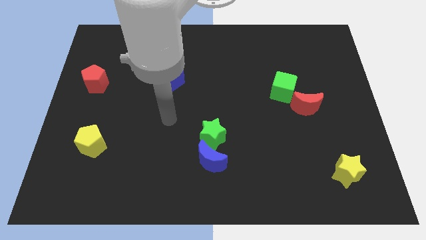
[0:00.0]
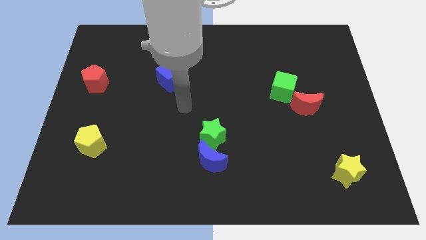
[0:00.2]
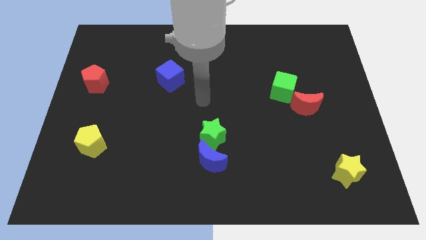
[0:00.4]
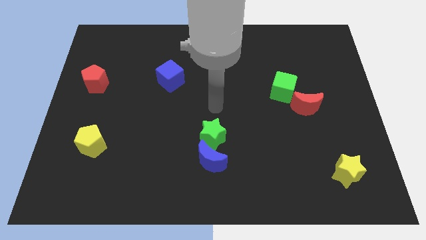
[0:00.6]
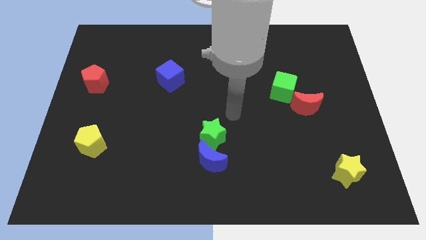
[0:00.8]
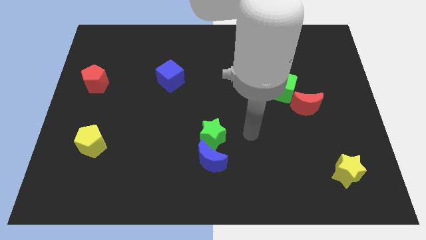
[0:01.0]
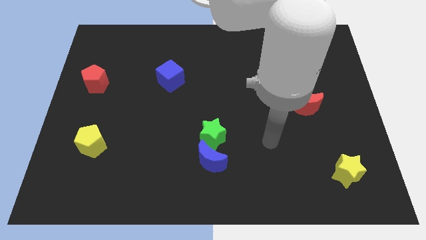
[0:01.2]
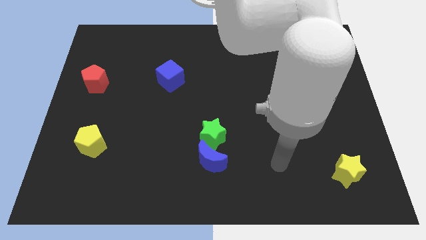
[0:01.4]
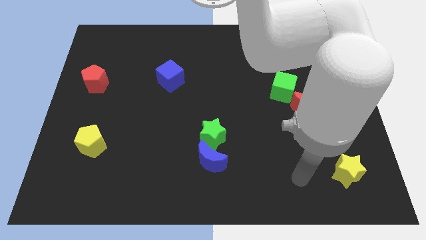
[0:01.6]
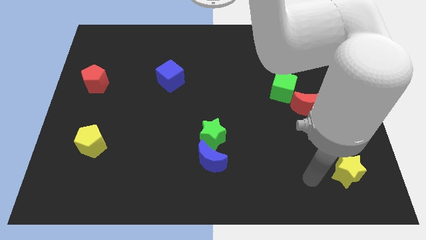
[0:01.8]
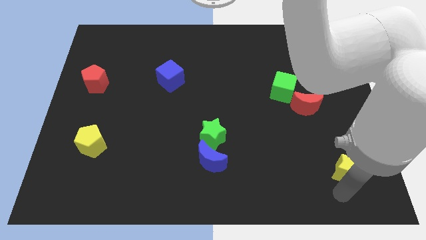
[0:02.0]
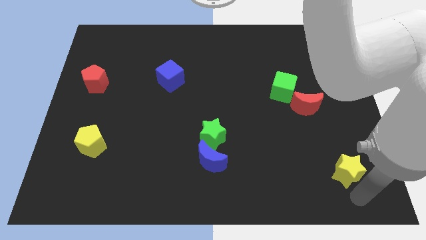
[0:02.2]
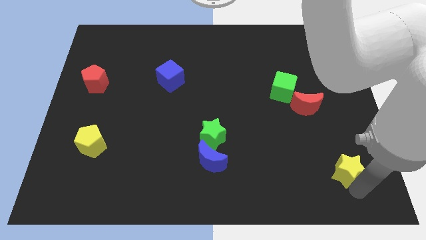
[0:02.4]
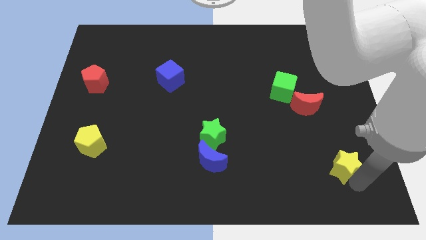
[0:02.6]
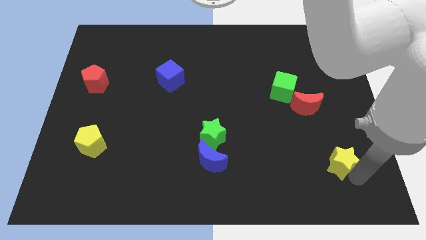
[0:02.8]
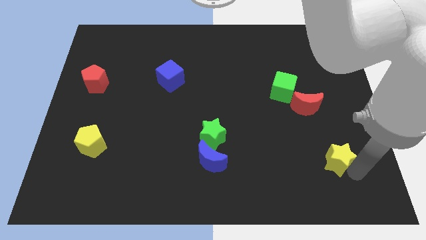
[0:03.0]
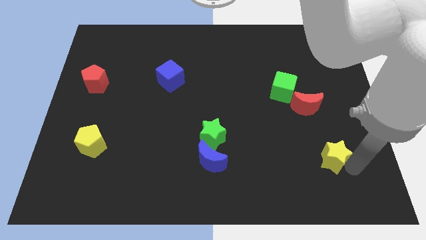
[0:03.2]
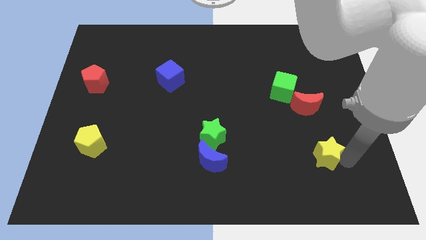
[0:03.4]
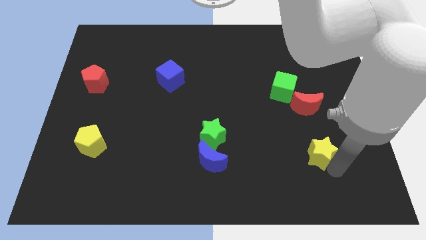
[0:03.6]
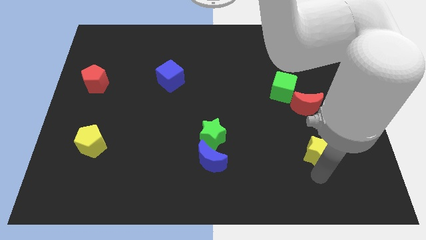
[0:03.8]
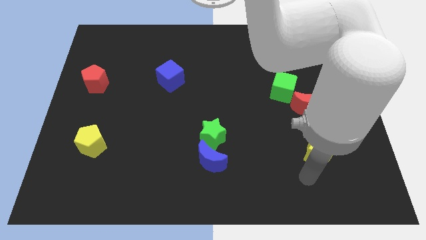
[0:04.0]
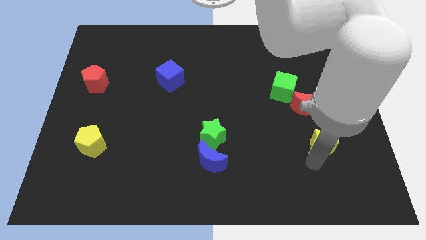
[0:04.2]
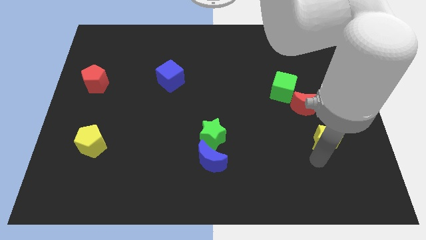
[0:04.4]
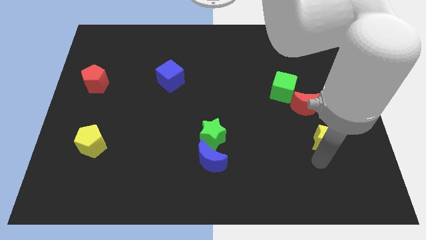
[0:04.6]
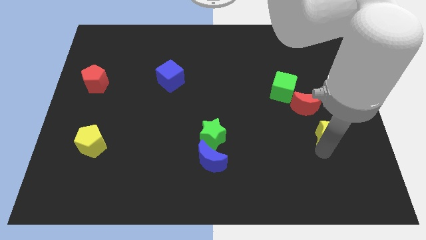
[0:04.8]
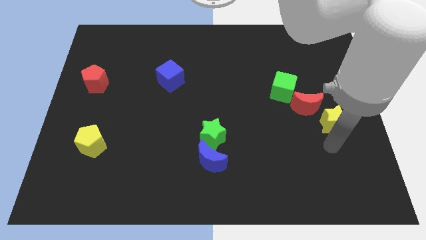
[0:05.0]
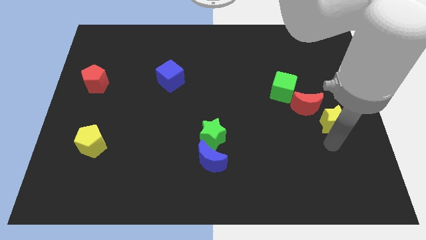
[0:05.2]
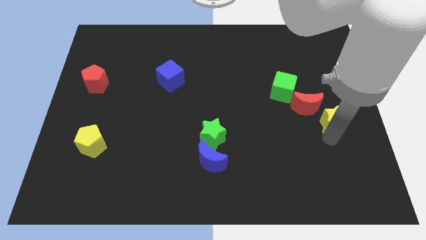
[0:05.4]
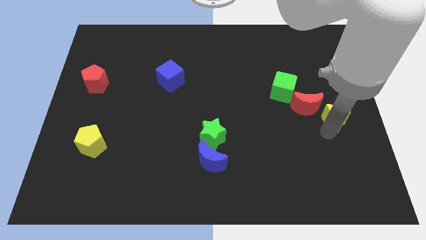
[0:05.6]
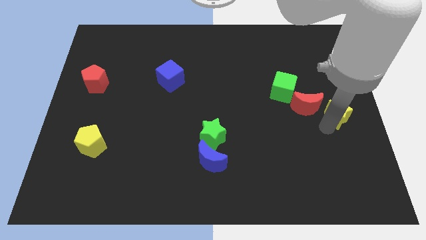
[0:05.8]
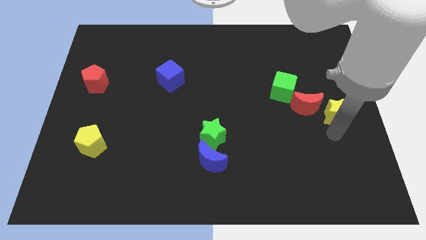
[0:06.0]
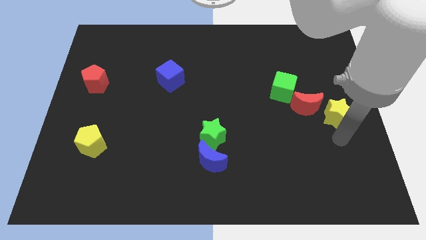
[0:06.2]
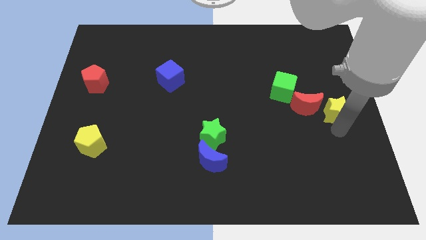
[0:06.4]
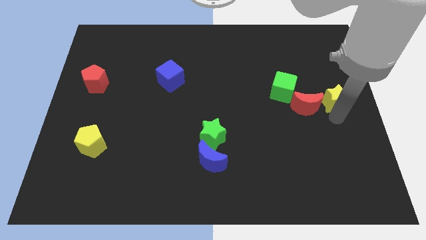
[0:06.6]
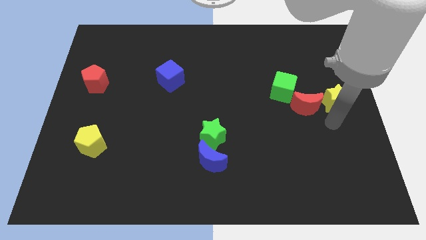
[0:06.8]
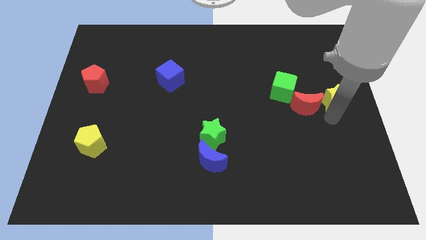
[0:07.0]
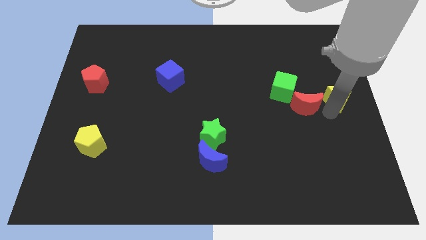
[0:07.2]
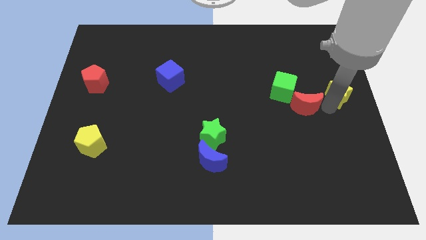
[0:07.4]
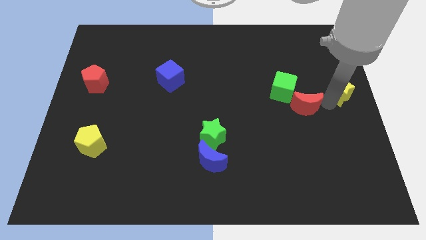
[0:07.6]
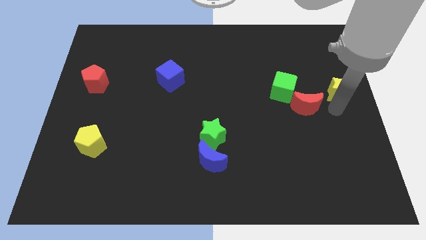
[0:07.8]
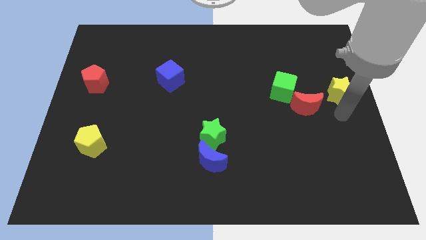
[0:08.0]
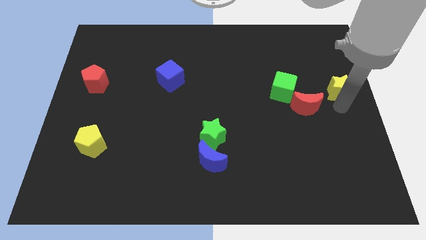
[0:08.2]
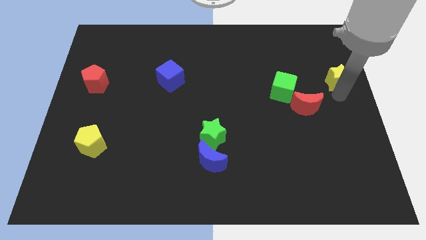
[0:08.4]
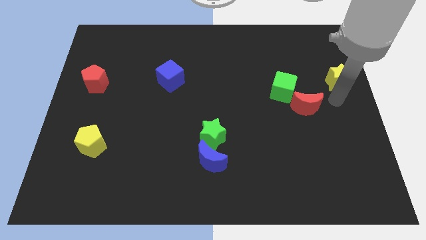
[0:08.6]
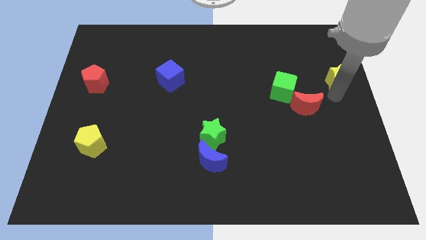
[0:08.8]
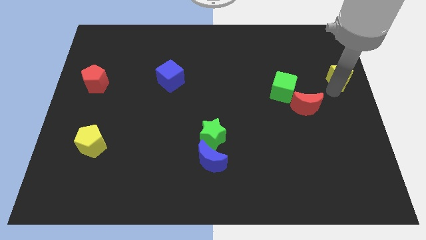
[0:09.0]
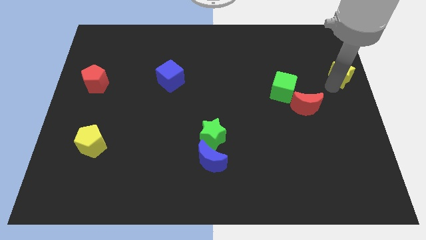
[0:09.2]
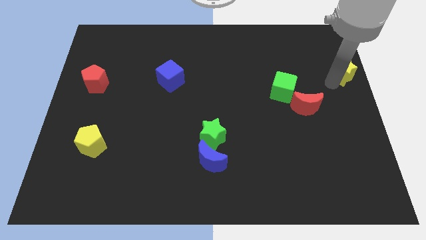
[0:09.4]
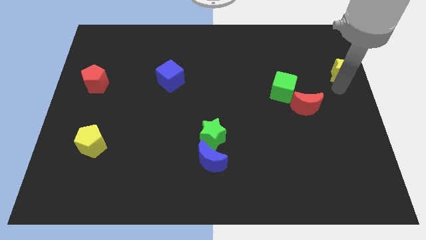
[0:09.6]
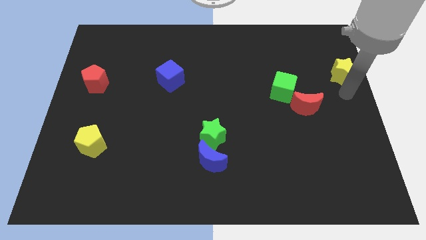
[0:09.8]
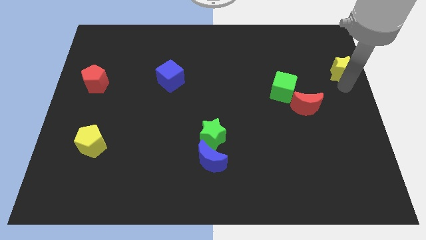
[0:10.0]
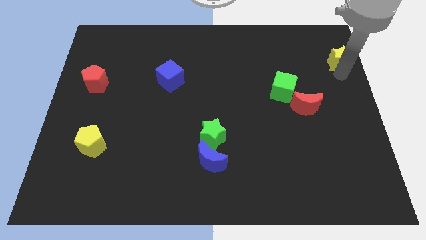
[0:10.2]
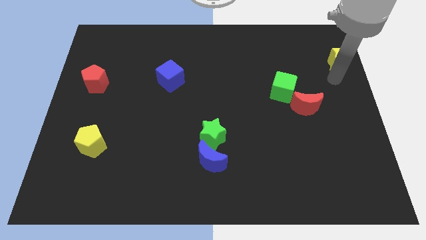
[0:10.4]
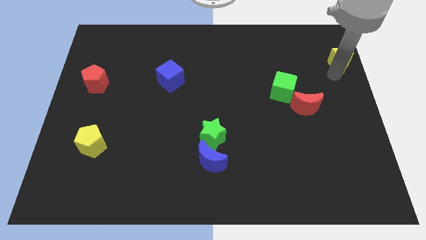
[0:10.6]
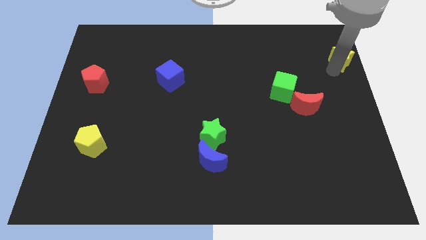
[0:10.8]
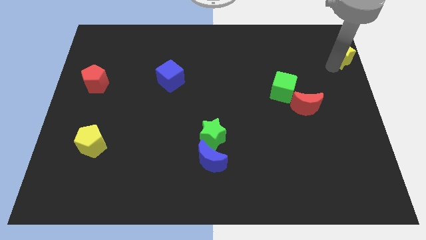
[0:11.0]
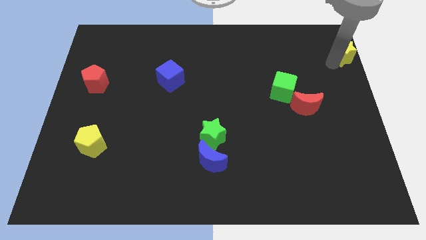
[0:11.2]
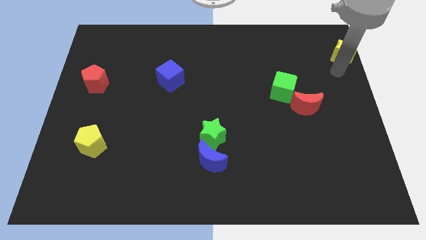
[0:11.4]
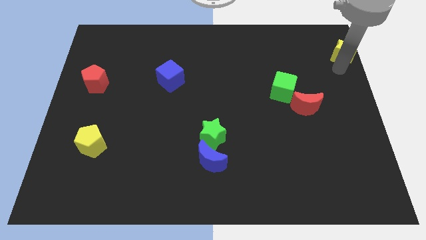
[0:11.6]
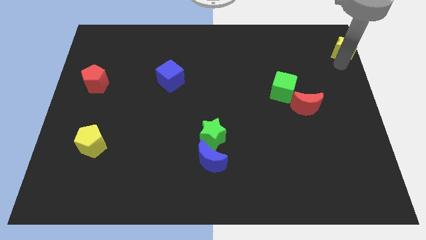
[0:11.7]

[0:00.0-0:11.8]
slide the yellow star to the top right of the board

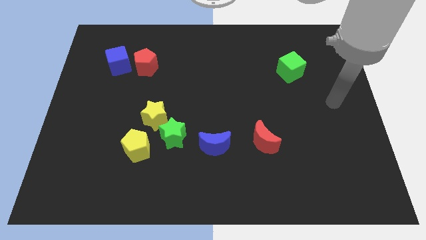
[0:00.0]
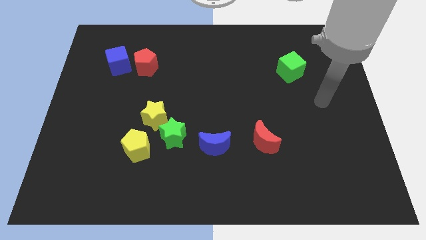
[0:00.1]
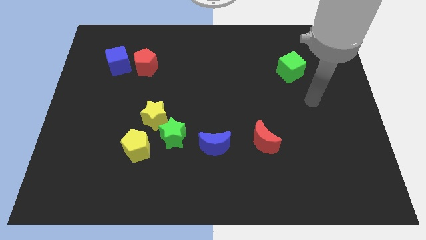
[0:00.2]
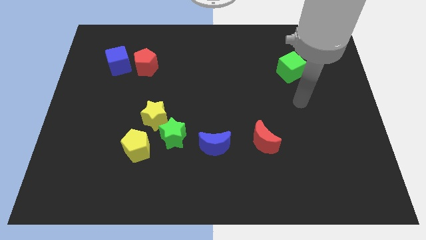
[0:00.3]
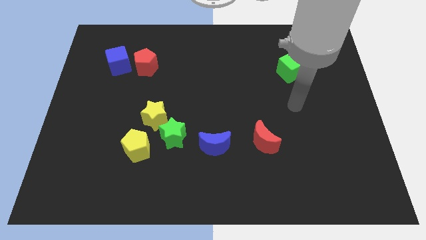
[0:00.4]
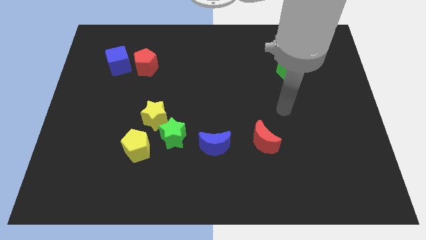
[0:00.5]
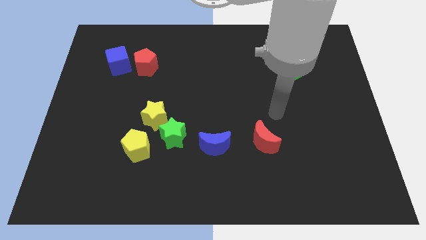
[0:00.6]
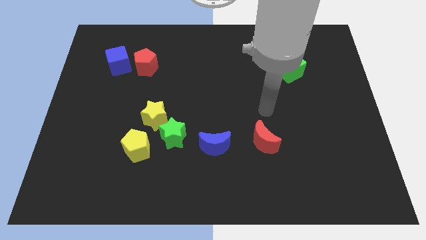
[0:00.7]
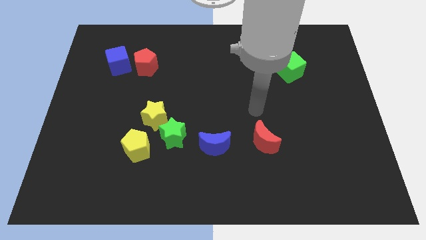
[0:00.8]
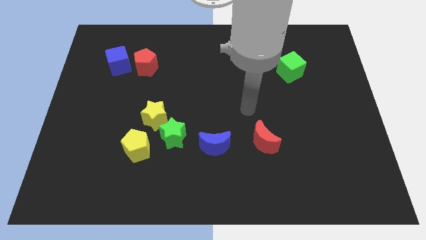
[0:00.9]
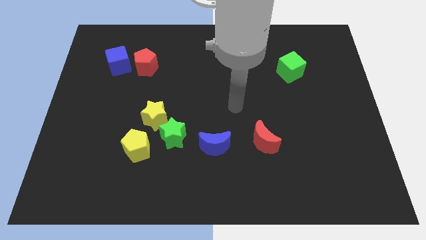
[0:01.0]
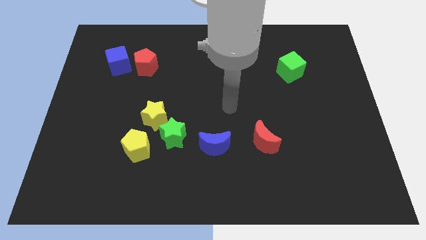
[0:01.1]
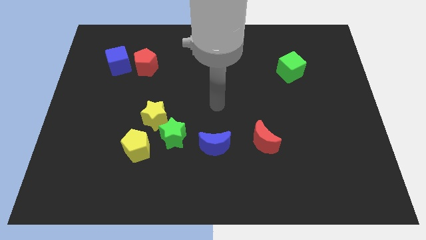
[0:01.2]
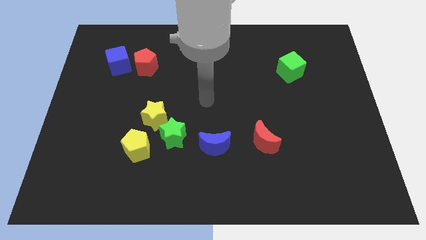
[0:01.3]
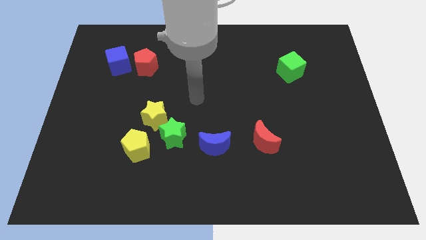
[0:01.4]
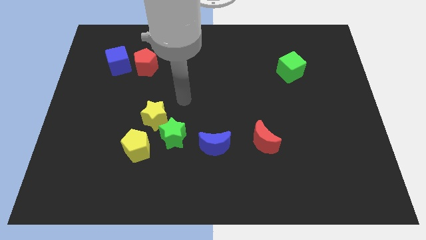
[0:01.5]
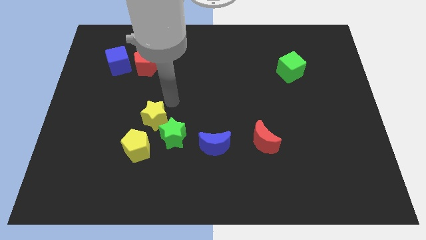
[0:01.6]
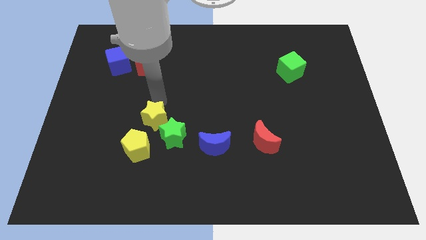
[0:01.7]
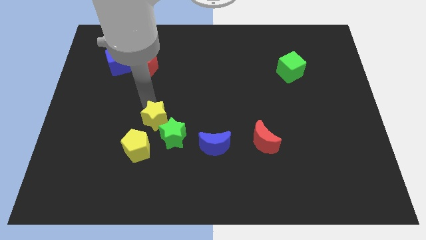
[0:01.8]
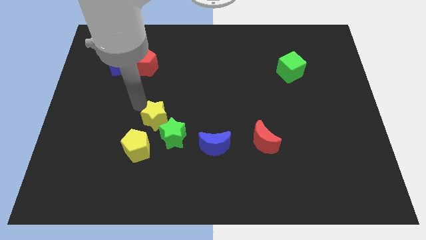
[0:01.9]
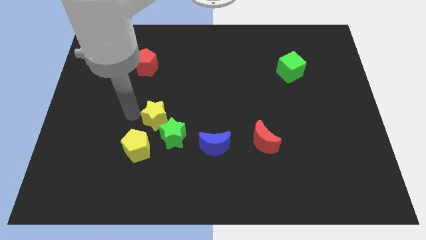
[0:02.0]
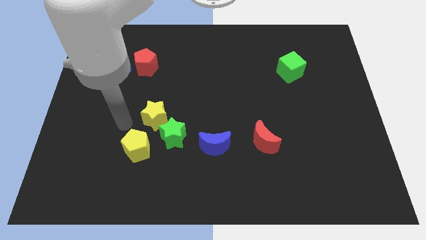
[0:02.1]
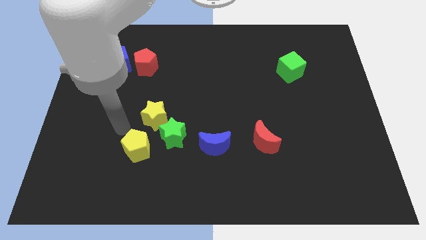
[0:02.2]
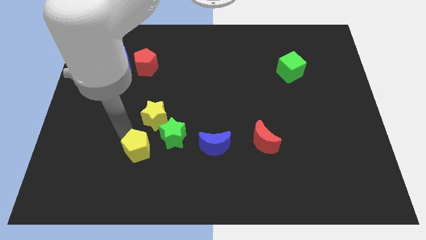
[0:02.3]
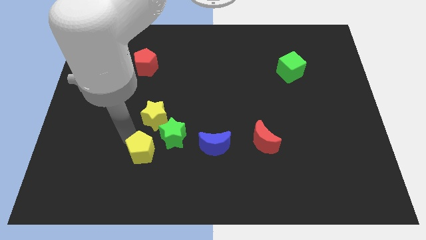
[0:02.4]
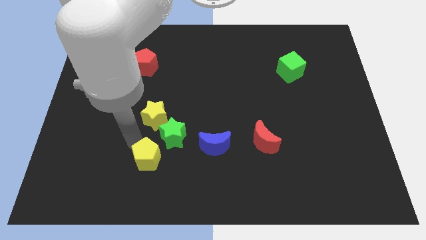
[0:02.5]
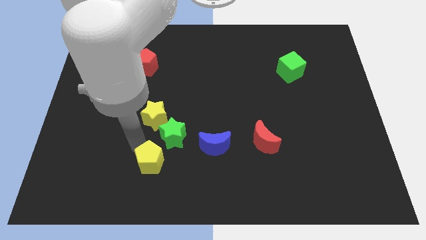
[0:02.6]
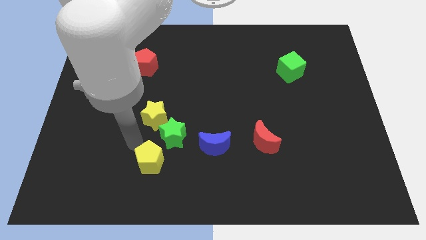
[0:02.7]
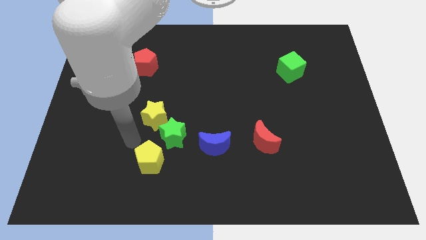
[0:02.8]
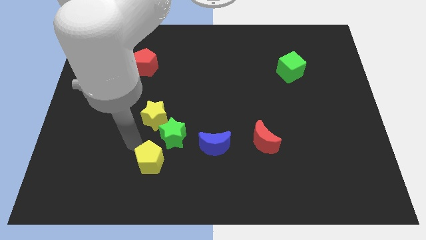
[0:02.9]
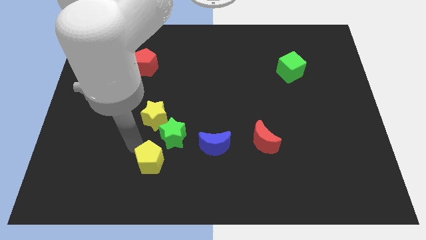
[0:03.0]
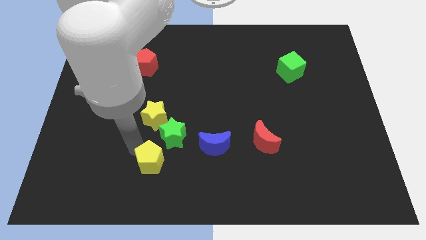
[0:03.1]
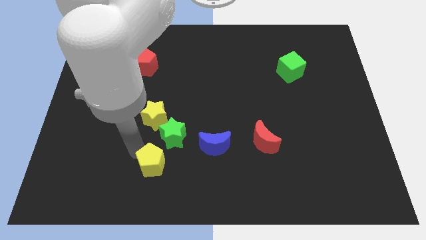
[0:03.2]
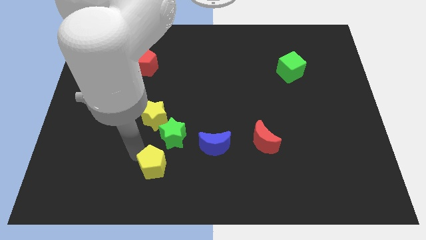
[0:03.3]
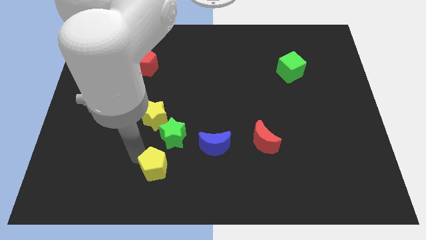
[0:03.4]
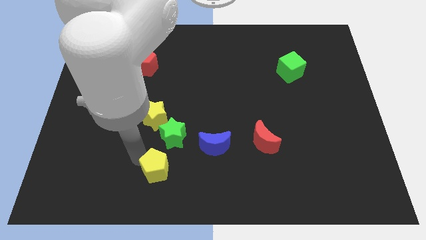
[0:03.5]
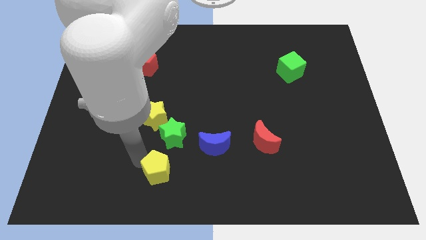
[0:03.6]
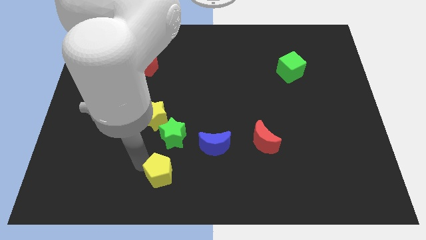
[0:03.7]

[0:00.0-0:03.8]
slide the yellow pentagon to the bottom side
